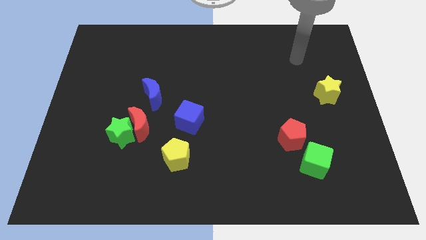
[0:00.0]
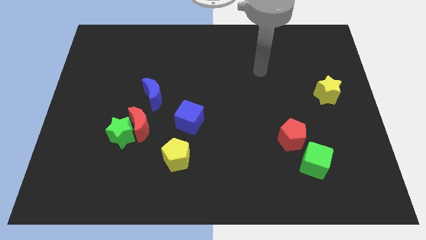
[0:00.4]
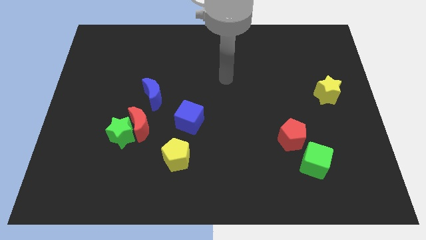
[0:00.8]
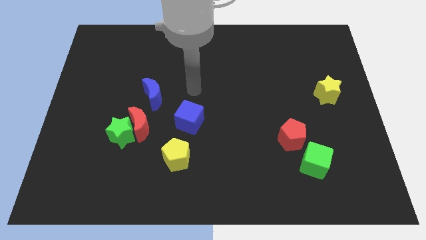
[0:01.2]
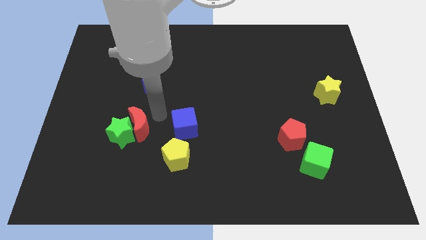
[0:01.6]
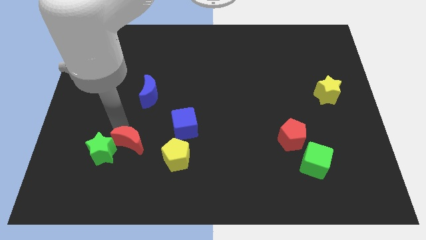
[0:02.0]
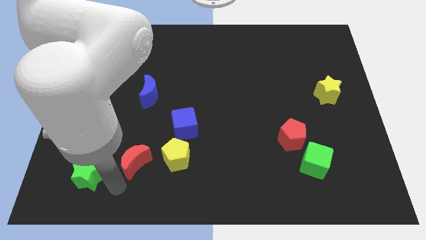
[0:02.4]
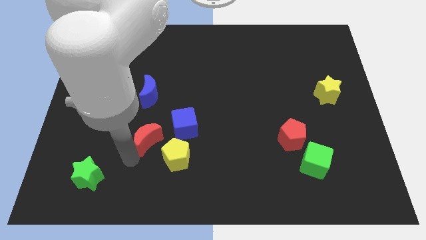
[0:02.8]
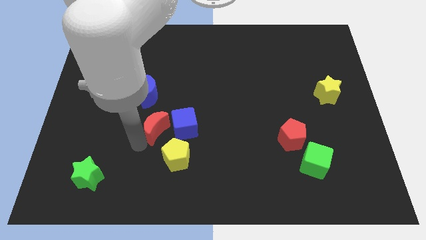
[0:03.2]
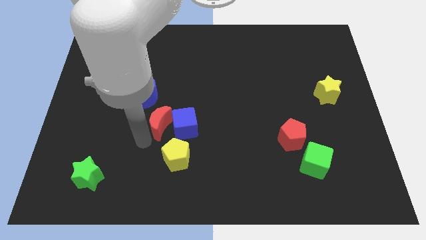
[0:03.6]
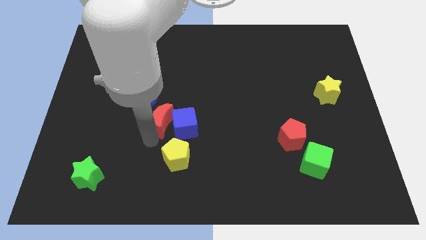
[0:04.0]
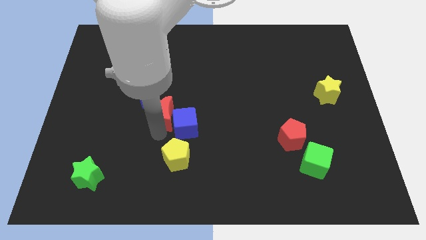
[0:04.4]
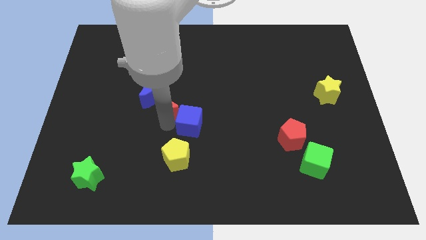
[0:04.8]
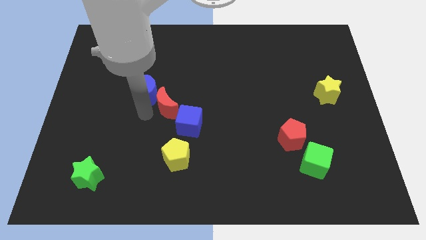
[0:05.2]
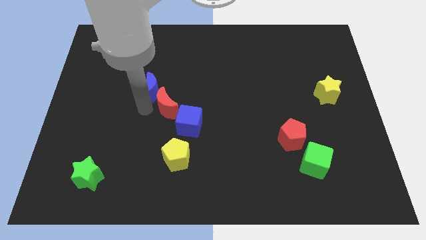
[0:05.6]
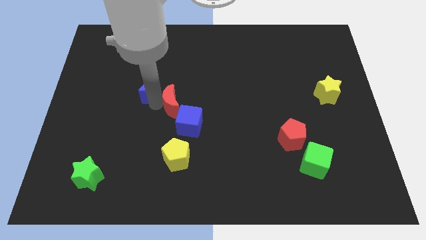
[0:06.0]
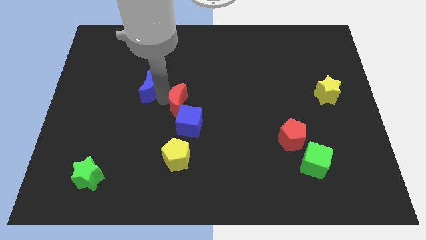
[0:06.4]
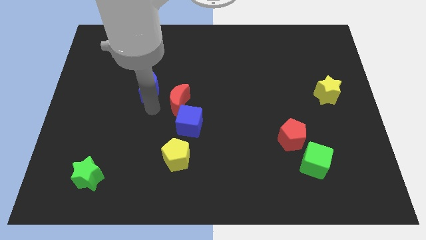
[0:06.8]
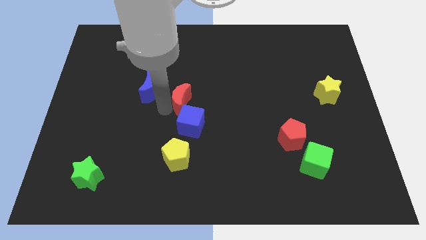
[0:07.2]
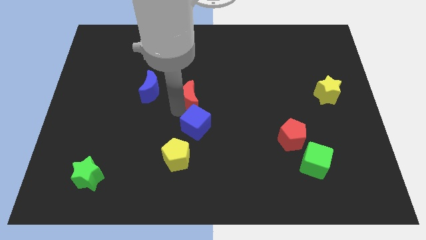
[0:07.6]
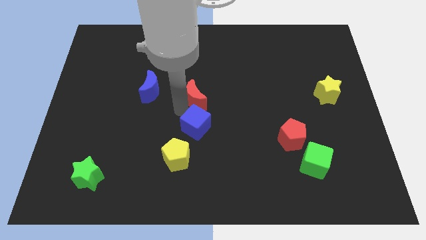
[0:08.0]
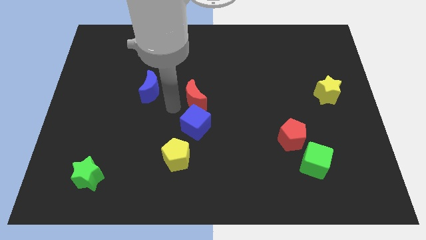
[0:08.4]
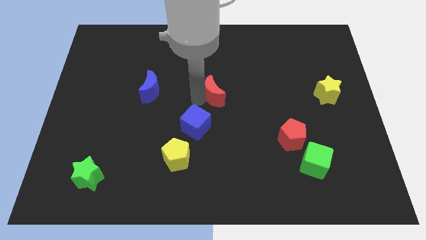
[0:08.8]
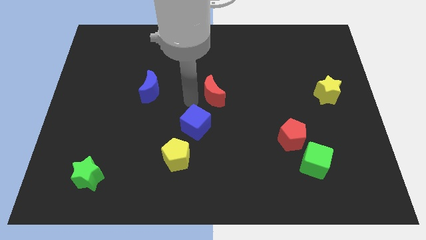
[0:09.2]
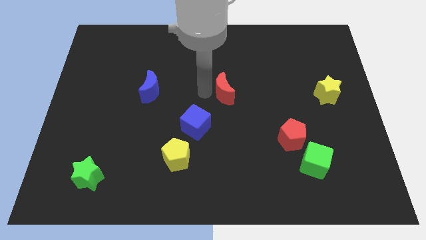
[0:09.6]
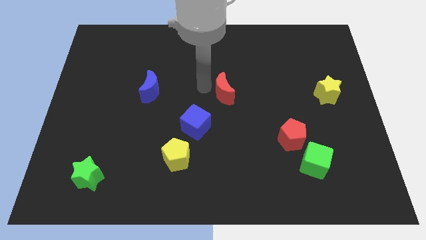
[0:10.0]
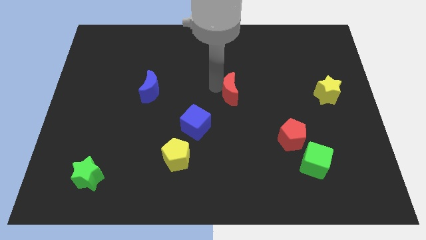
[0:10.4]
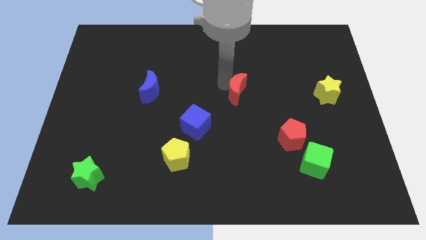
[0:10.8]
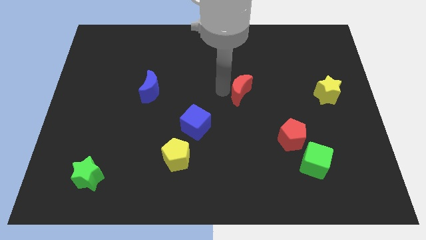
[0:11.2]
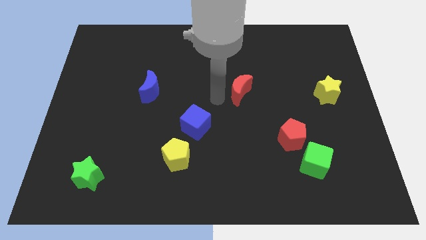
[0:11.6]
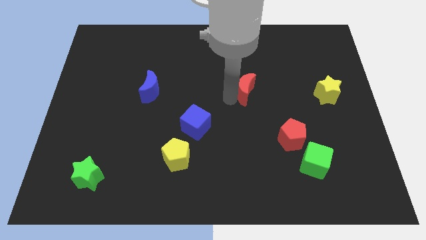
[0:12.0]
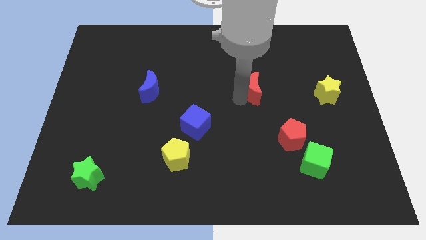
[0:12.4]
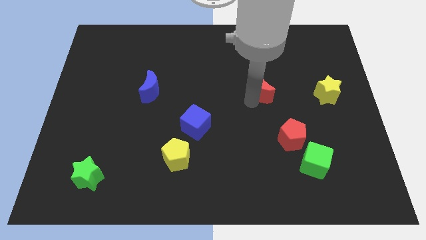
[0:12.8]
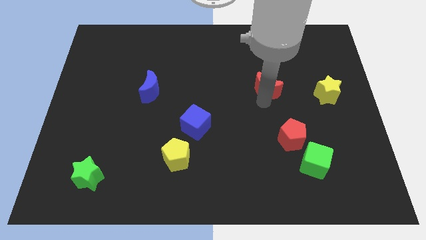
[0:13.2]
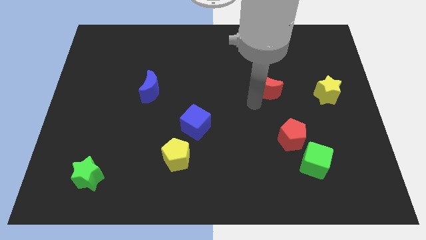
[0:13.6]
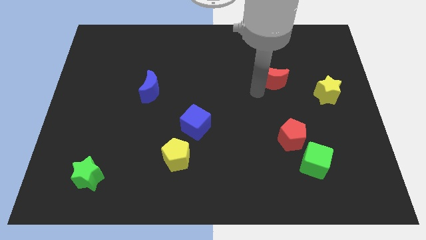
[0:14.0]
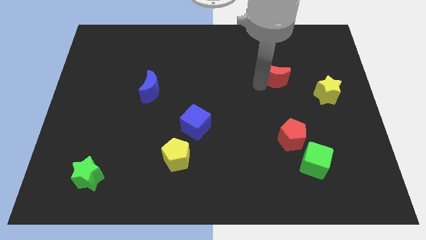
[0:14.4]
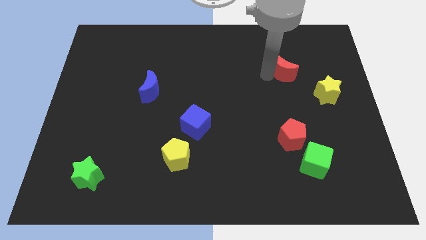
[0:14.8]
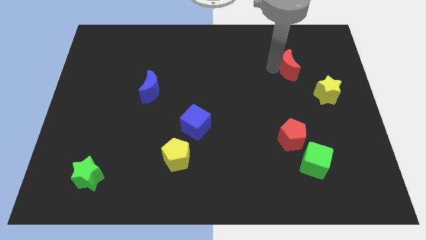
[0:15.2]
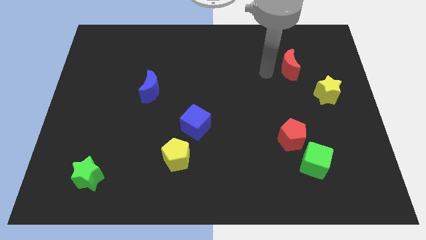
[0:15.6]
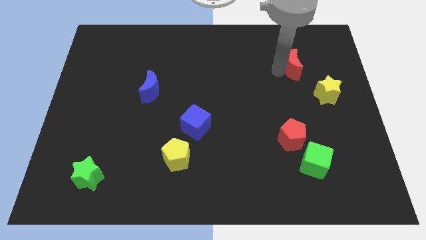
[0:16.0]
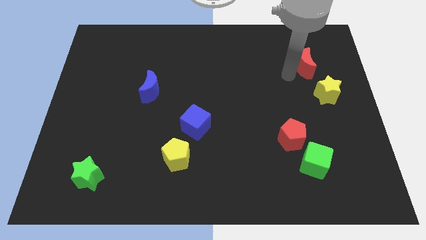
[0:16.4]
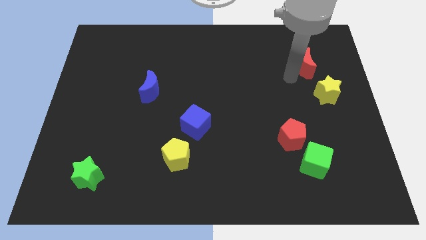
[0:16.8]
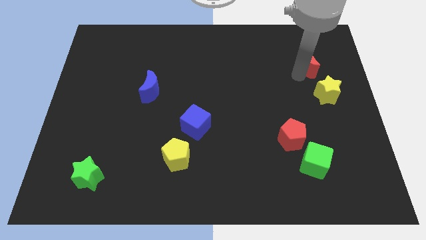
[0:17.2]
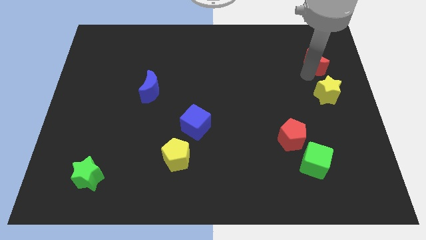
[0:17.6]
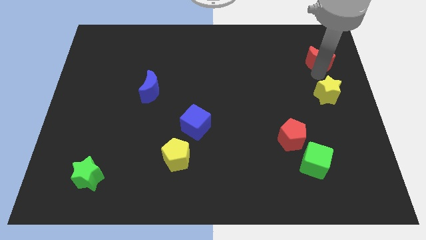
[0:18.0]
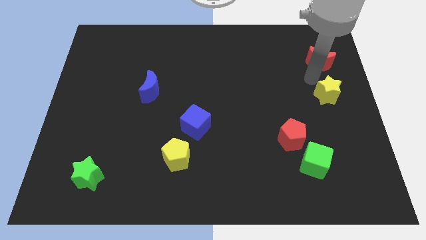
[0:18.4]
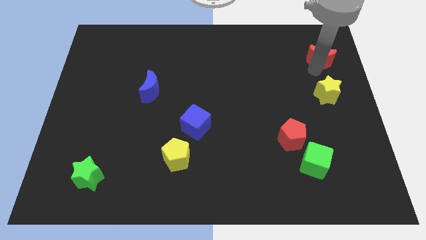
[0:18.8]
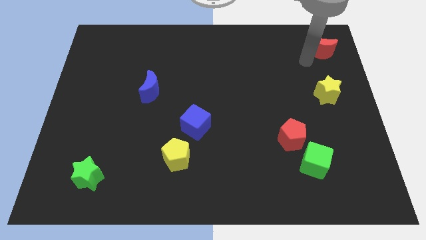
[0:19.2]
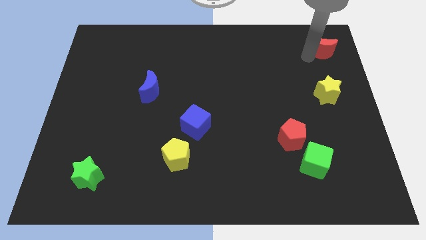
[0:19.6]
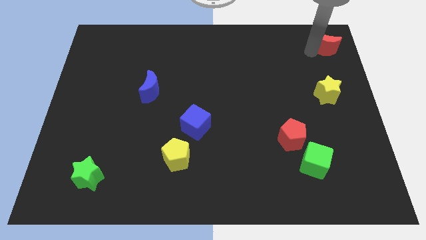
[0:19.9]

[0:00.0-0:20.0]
put the red moon to the upper right corner
